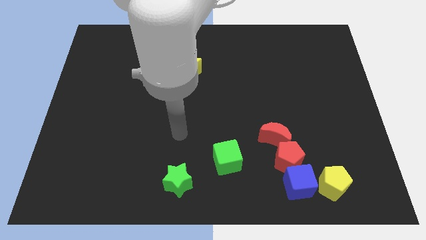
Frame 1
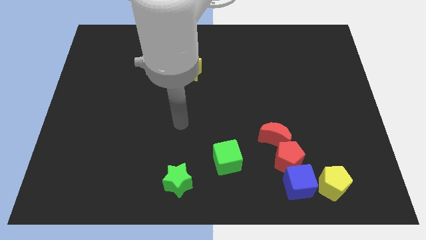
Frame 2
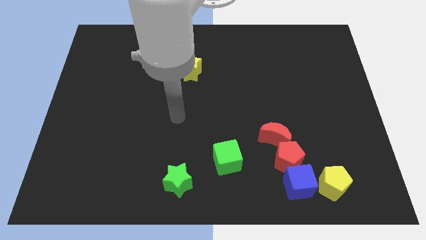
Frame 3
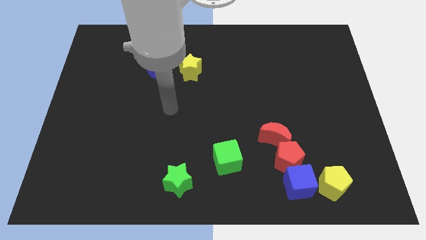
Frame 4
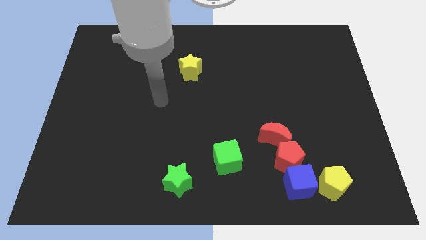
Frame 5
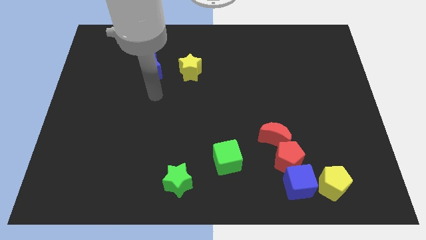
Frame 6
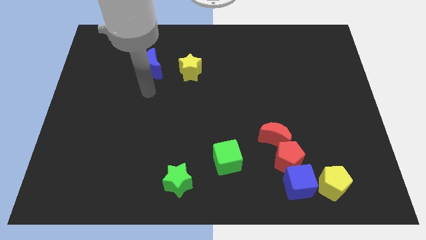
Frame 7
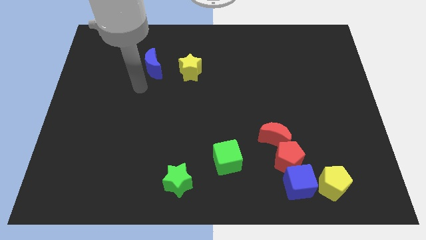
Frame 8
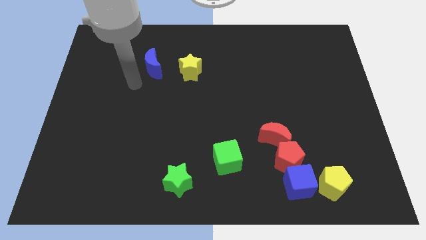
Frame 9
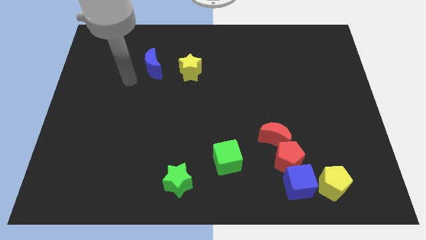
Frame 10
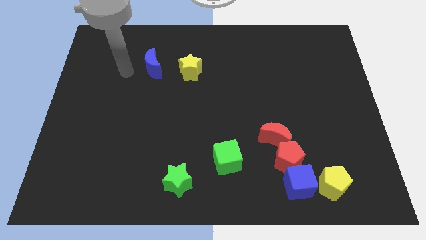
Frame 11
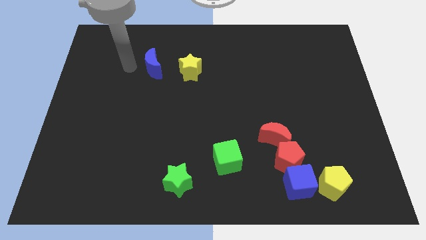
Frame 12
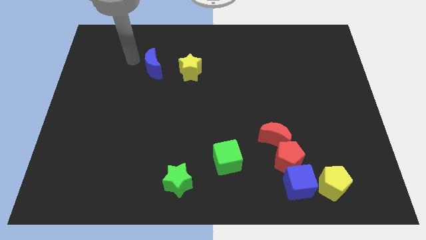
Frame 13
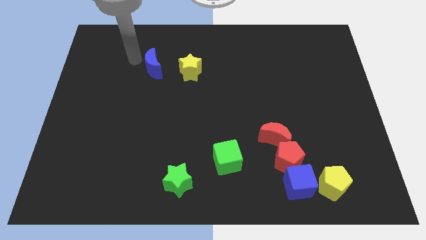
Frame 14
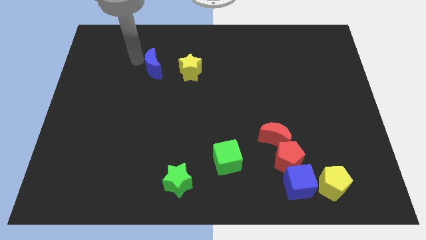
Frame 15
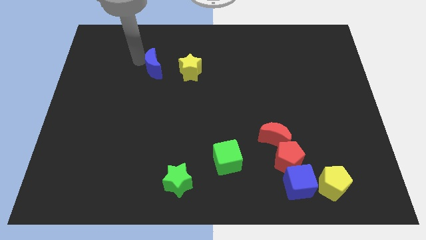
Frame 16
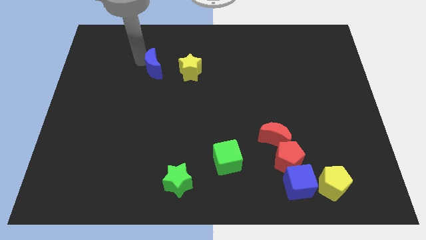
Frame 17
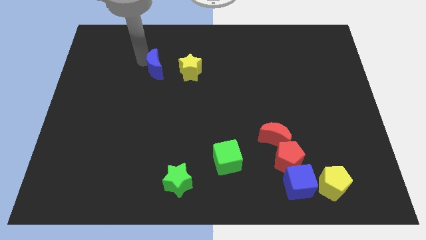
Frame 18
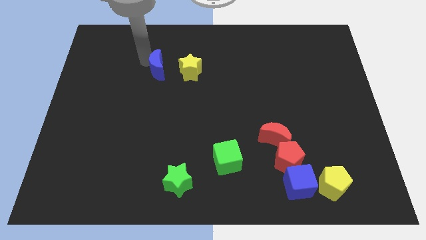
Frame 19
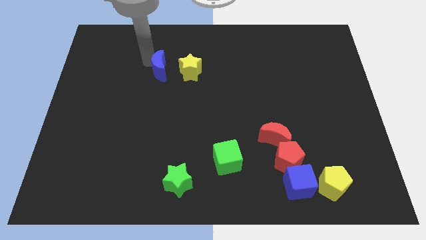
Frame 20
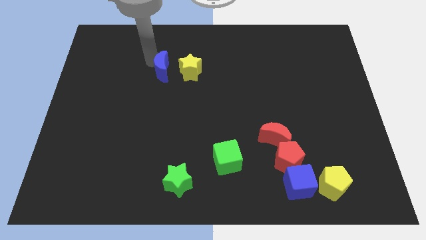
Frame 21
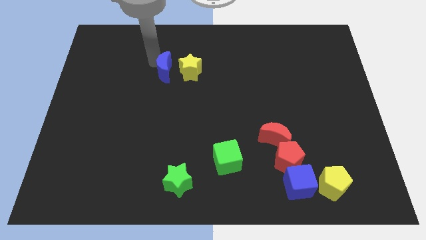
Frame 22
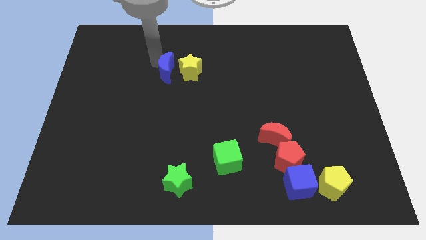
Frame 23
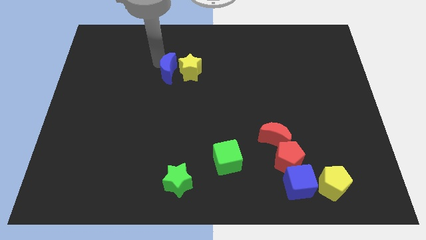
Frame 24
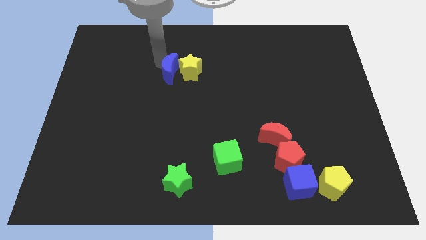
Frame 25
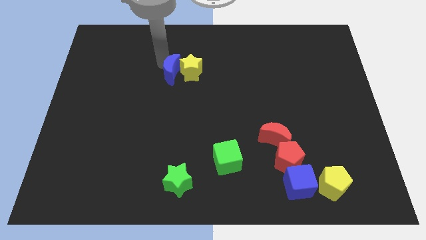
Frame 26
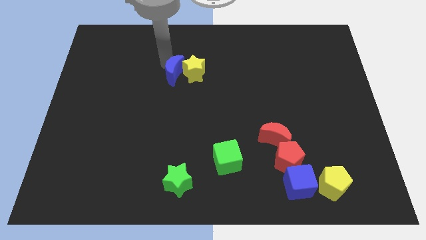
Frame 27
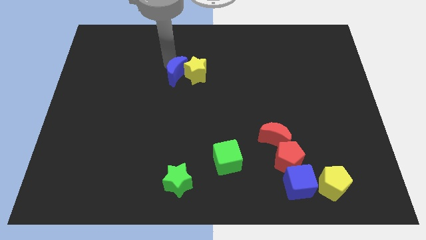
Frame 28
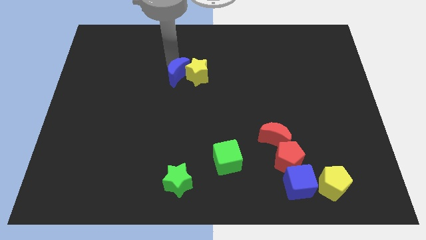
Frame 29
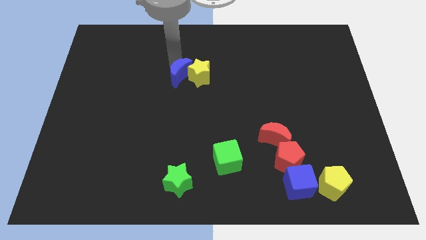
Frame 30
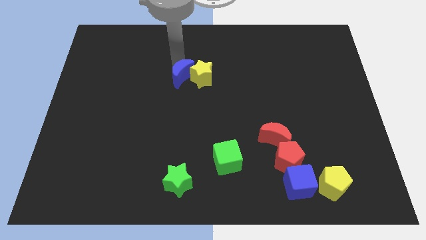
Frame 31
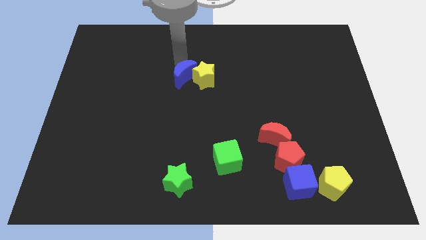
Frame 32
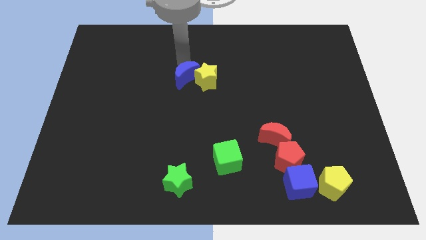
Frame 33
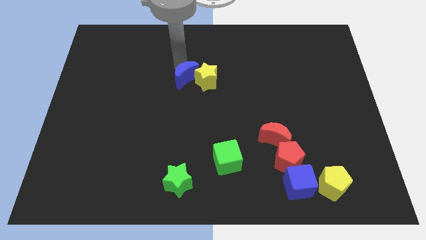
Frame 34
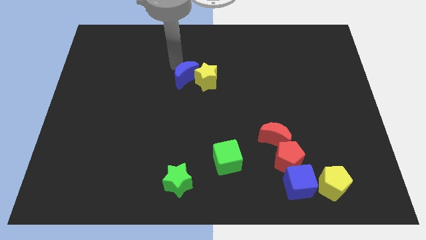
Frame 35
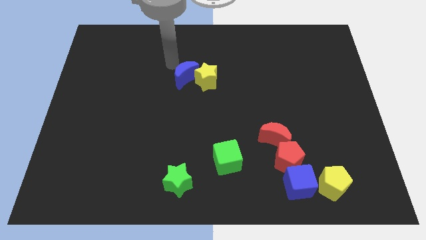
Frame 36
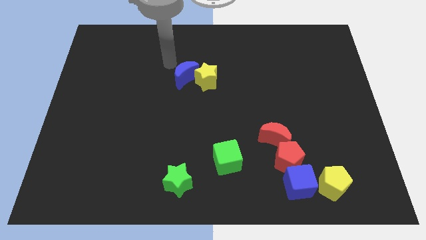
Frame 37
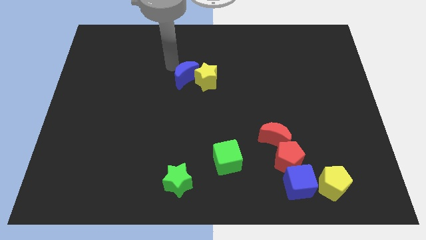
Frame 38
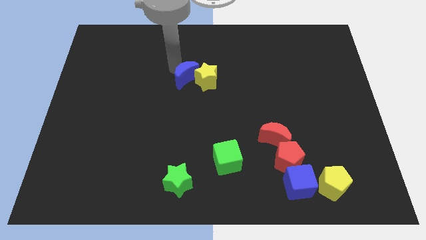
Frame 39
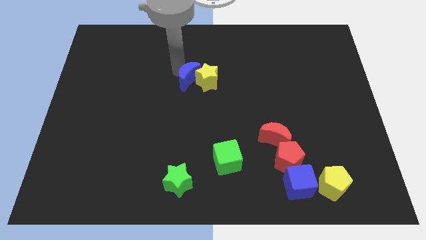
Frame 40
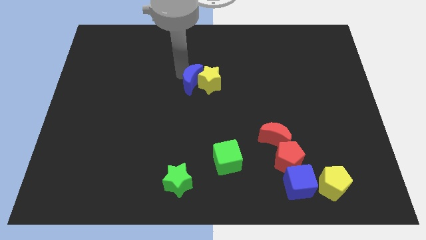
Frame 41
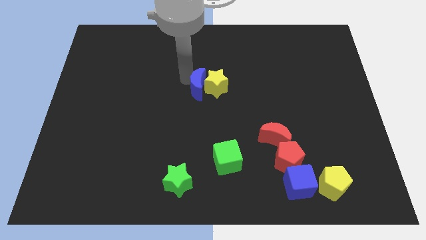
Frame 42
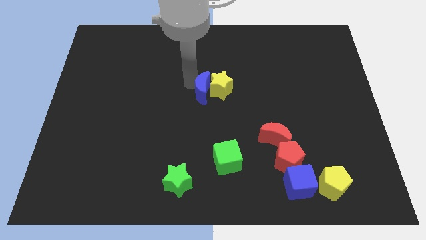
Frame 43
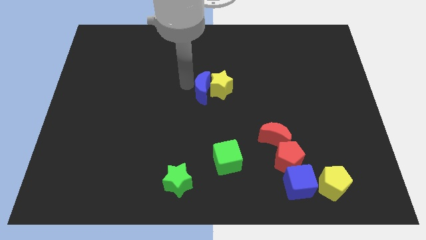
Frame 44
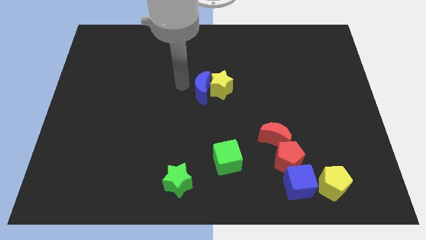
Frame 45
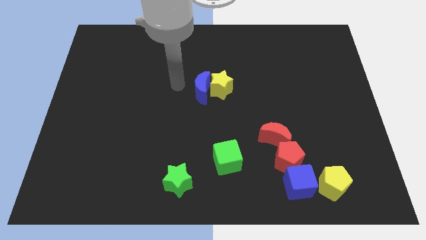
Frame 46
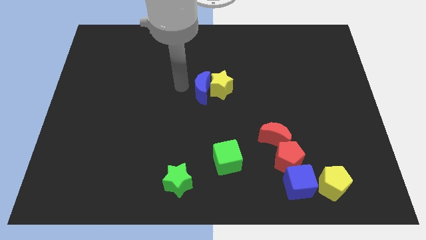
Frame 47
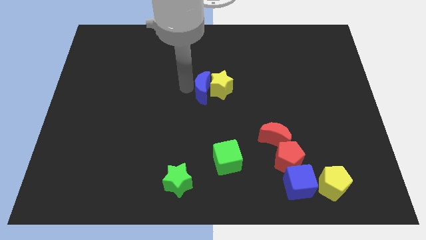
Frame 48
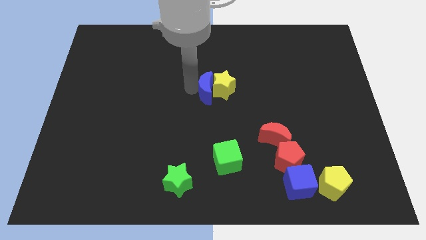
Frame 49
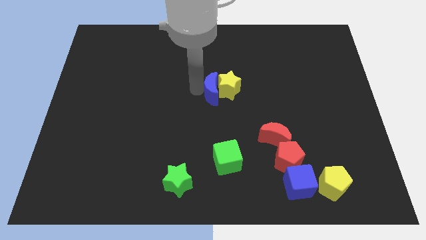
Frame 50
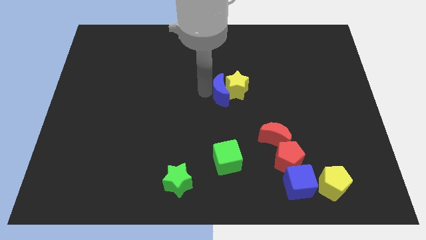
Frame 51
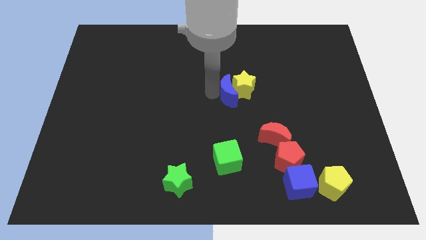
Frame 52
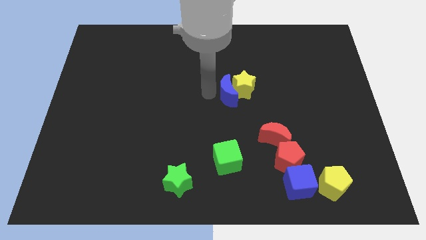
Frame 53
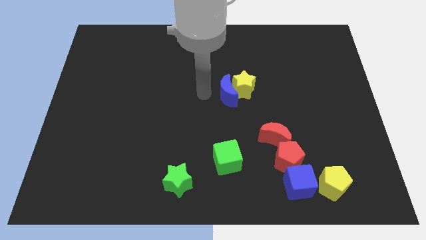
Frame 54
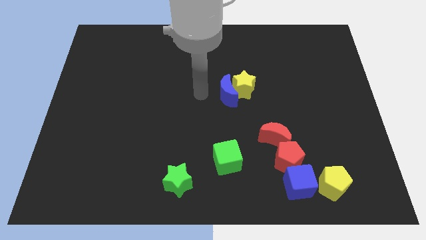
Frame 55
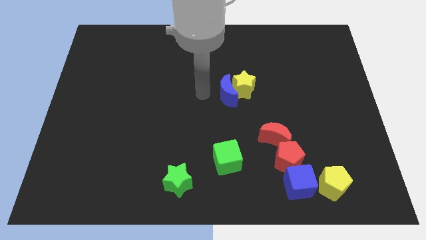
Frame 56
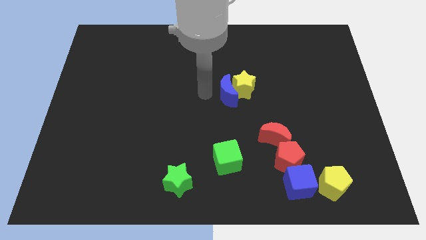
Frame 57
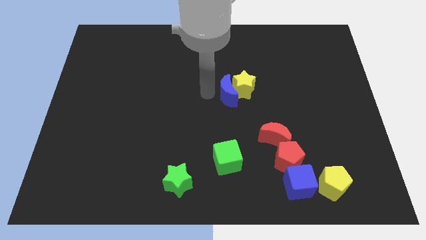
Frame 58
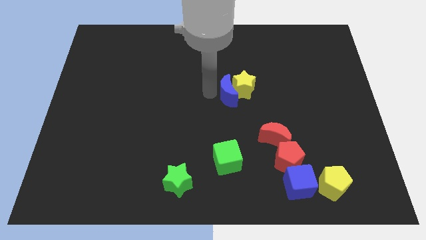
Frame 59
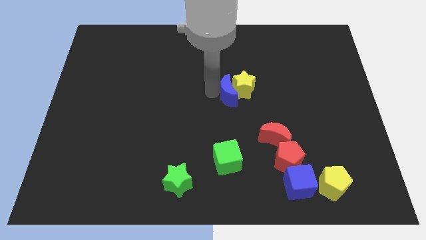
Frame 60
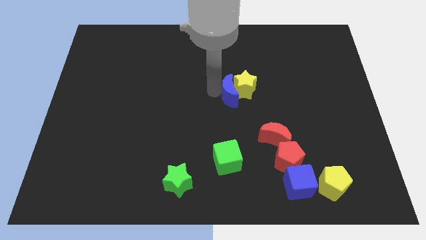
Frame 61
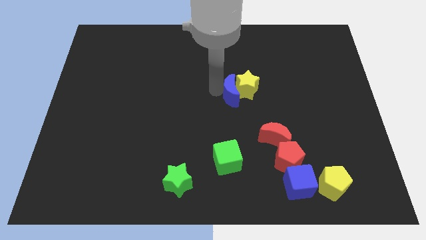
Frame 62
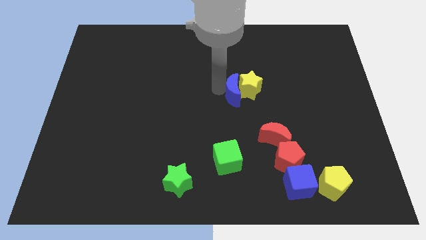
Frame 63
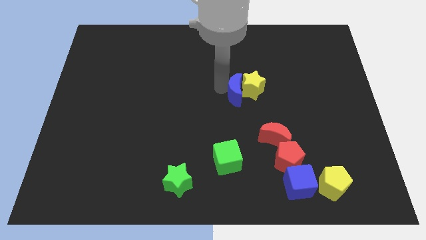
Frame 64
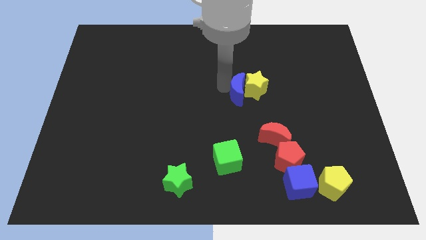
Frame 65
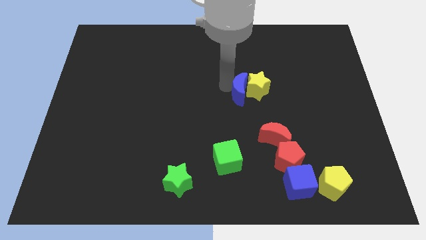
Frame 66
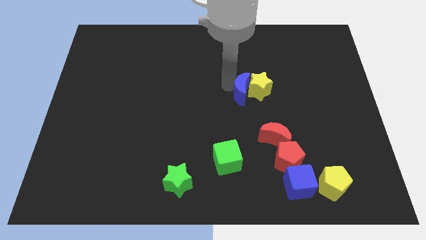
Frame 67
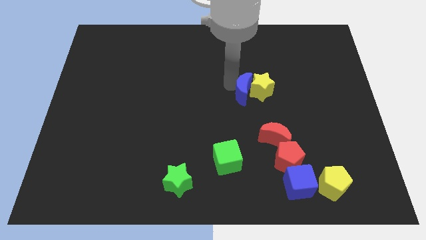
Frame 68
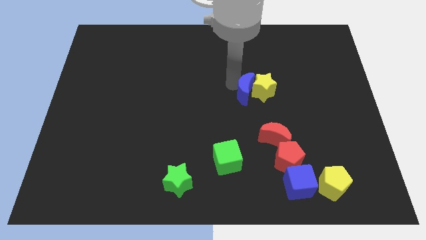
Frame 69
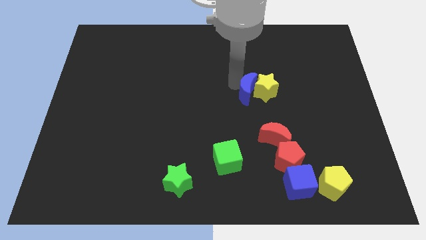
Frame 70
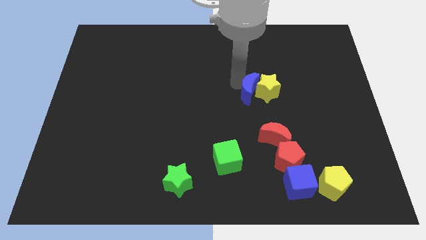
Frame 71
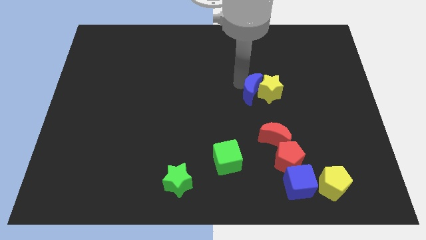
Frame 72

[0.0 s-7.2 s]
slide the blue moon to the top of the red moon
